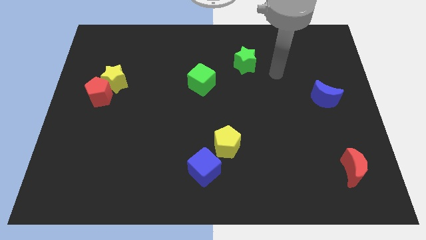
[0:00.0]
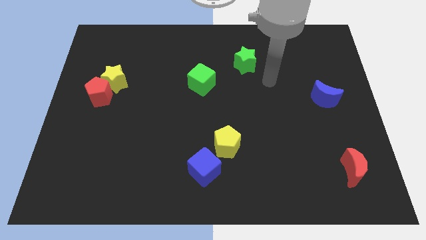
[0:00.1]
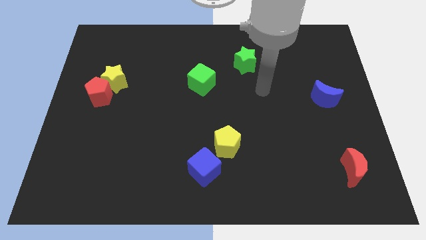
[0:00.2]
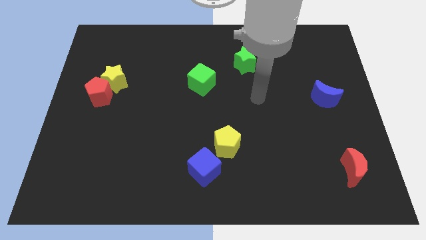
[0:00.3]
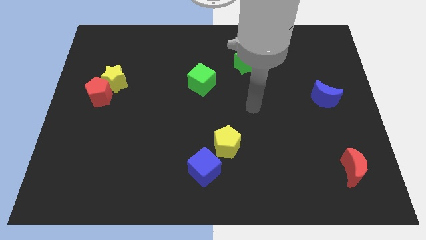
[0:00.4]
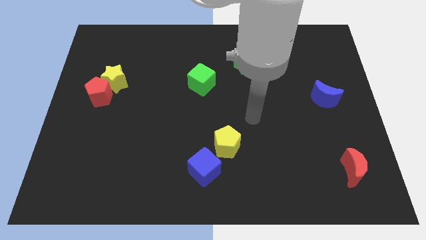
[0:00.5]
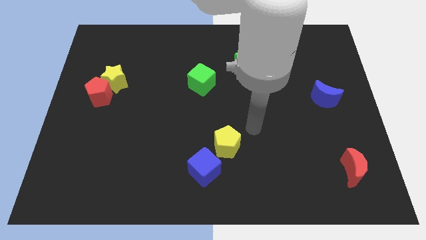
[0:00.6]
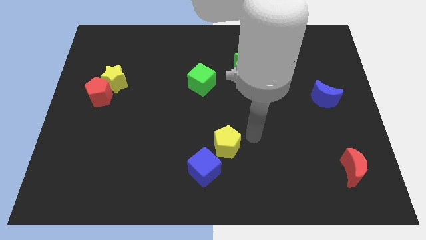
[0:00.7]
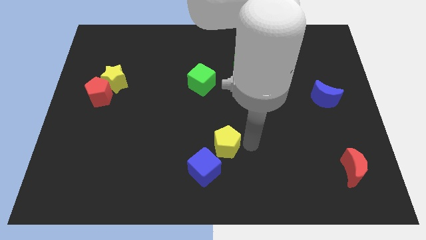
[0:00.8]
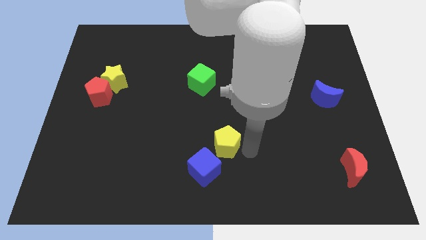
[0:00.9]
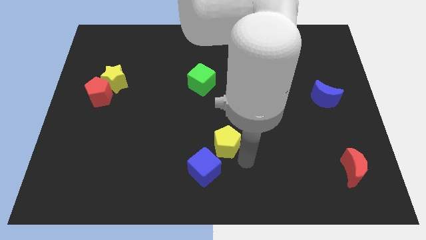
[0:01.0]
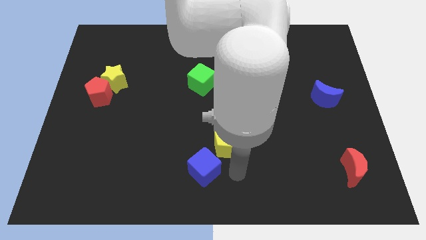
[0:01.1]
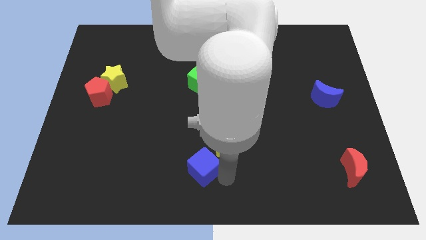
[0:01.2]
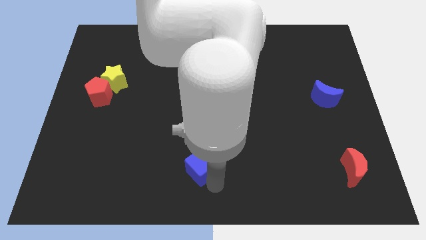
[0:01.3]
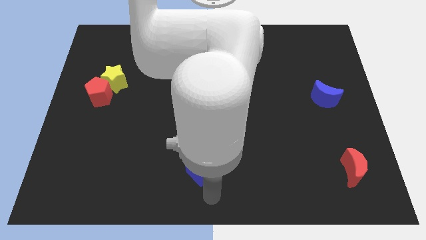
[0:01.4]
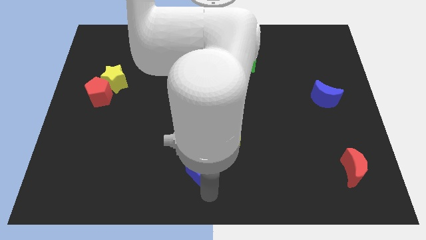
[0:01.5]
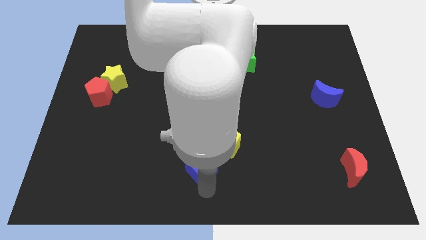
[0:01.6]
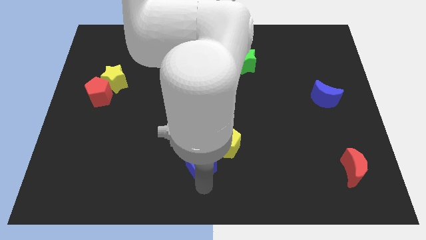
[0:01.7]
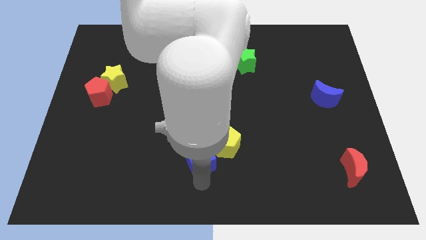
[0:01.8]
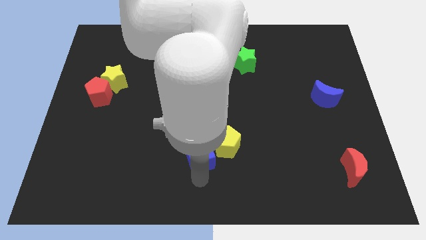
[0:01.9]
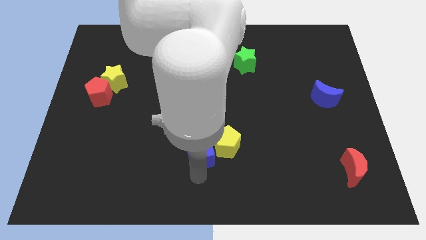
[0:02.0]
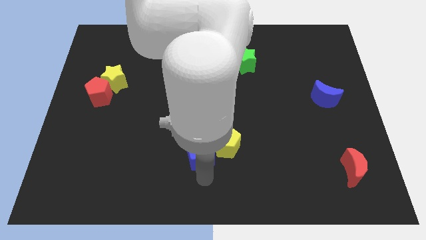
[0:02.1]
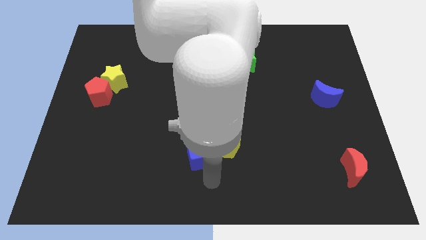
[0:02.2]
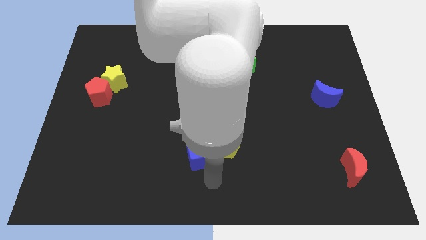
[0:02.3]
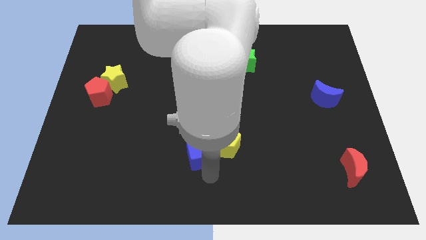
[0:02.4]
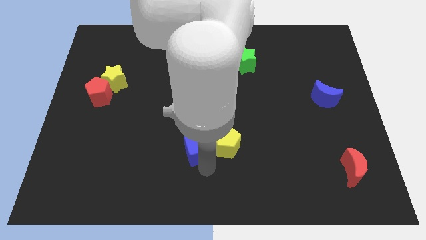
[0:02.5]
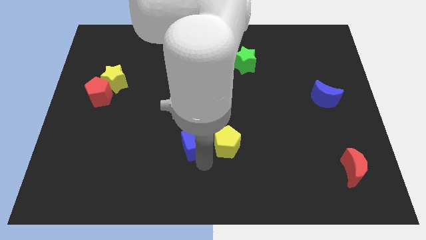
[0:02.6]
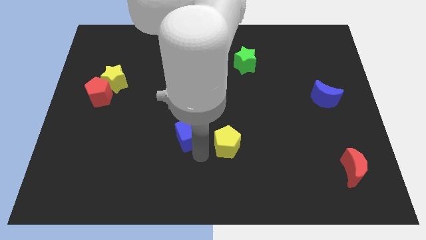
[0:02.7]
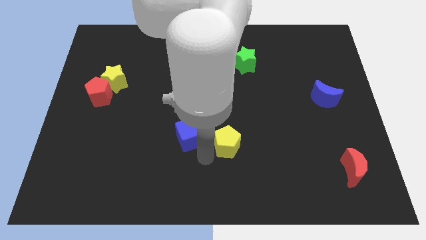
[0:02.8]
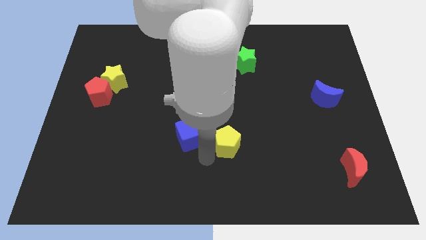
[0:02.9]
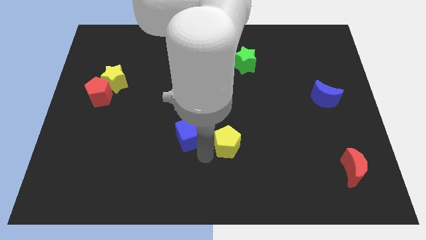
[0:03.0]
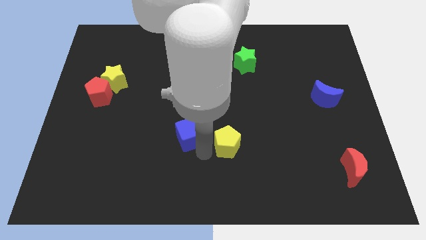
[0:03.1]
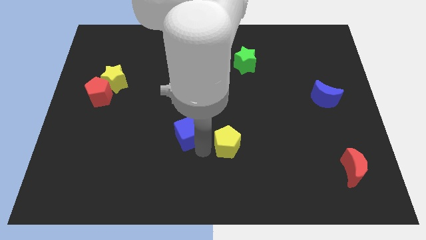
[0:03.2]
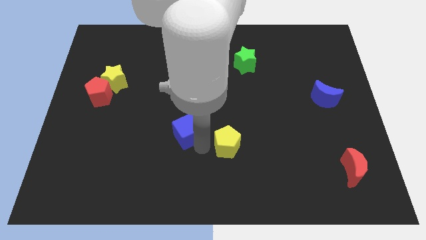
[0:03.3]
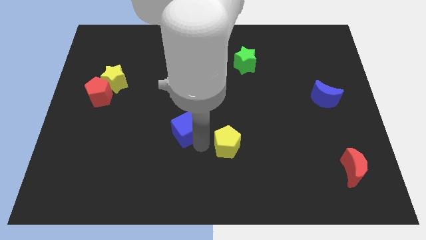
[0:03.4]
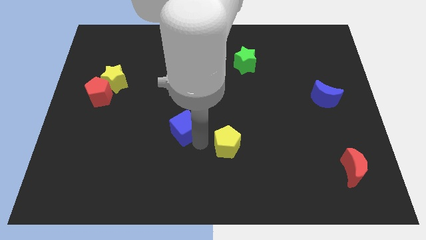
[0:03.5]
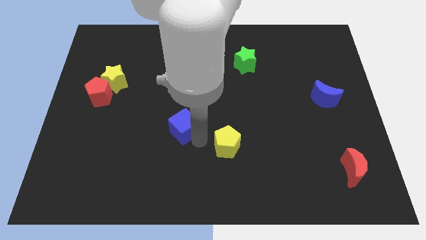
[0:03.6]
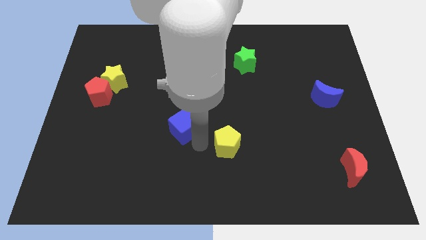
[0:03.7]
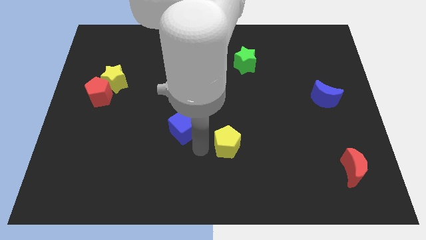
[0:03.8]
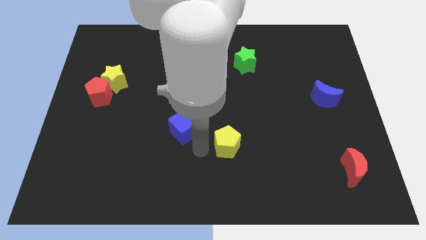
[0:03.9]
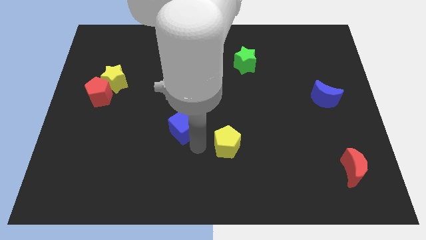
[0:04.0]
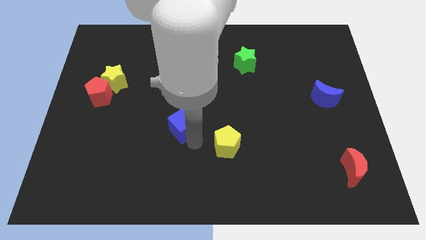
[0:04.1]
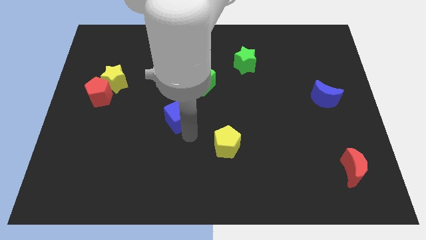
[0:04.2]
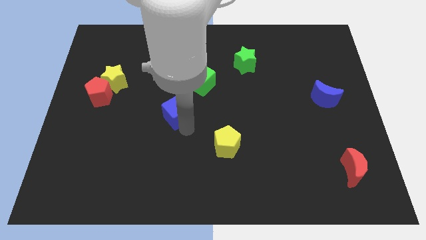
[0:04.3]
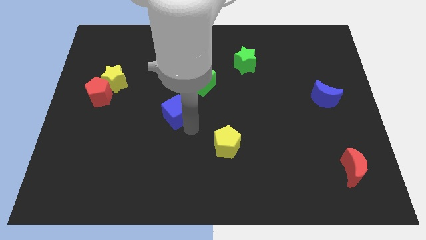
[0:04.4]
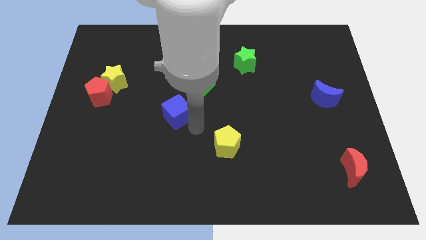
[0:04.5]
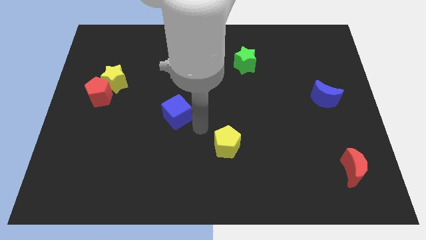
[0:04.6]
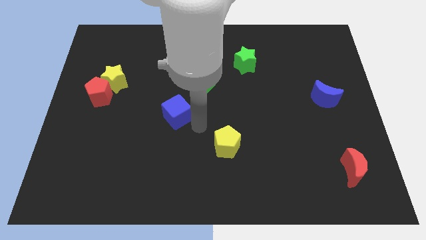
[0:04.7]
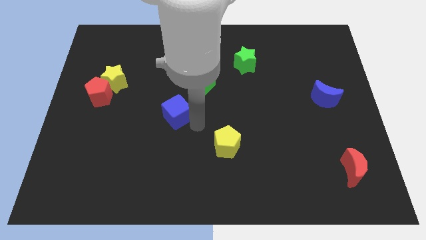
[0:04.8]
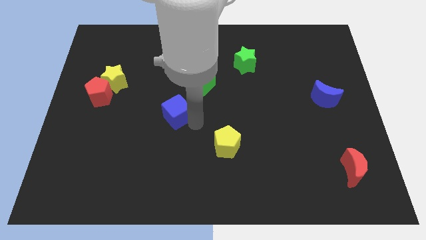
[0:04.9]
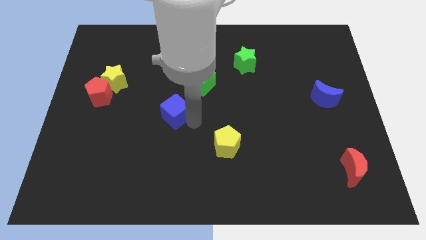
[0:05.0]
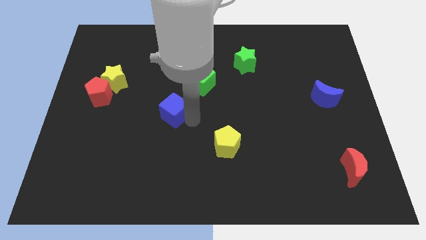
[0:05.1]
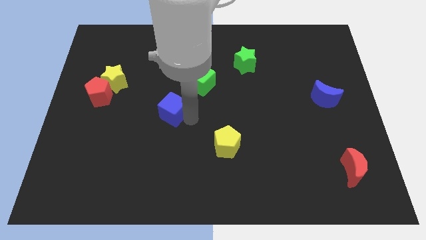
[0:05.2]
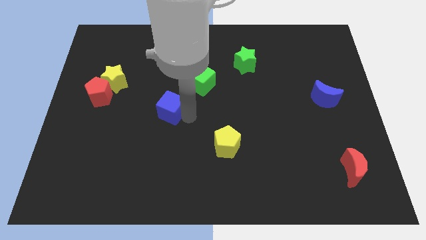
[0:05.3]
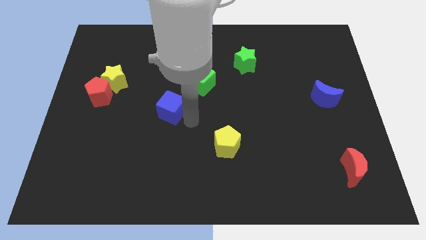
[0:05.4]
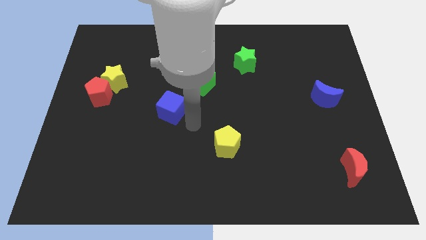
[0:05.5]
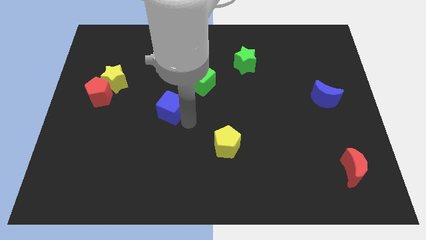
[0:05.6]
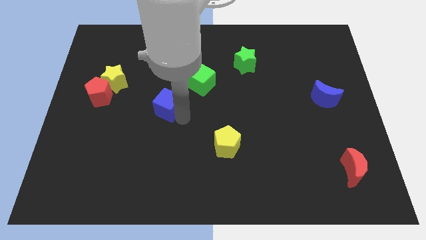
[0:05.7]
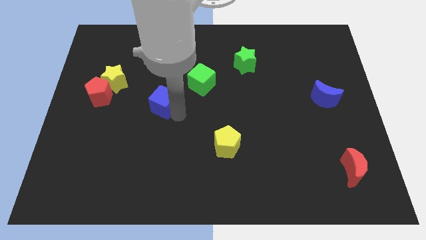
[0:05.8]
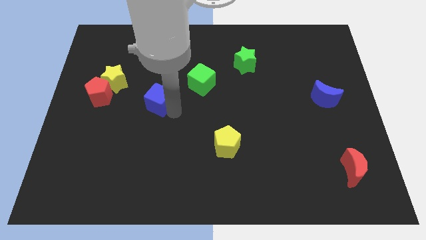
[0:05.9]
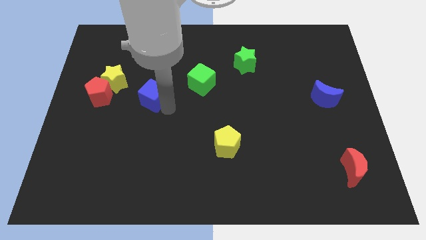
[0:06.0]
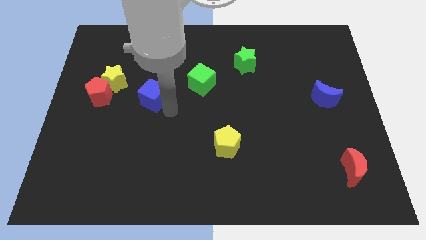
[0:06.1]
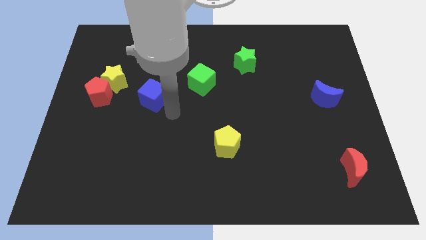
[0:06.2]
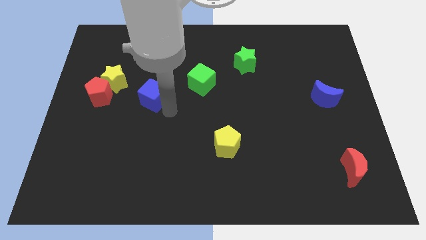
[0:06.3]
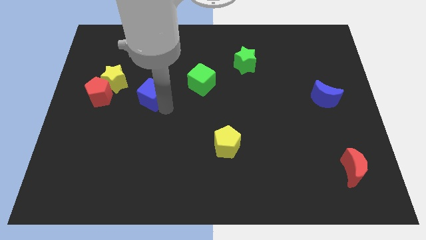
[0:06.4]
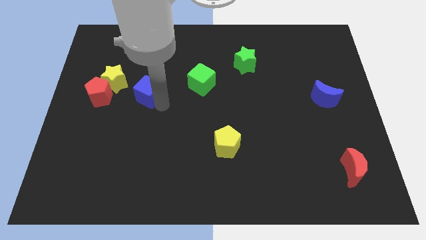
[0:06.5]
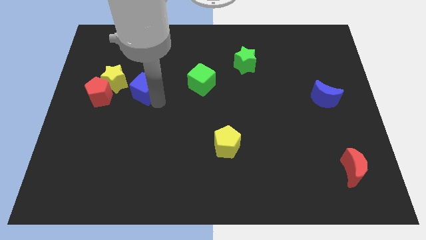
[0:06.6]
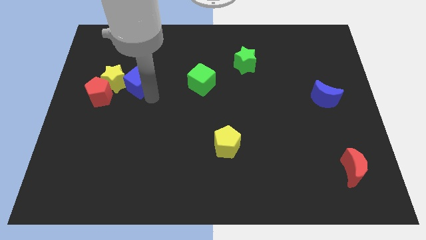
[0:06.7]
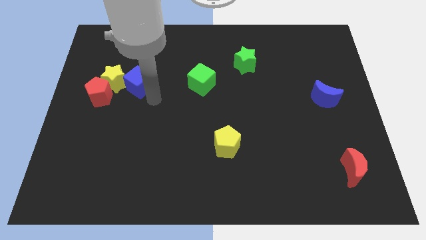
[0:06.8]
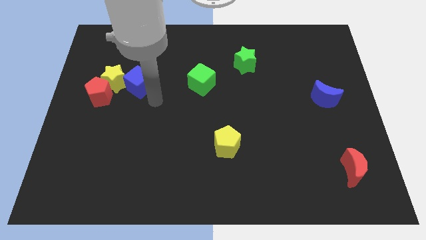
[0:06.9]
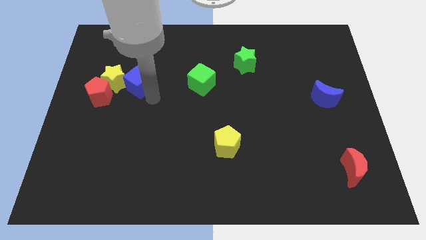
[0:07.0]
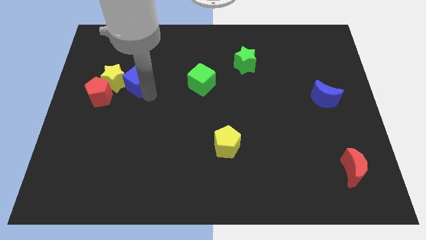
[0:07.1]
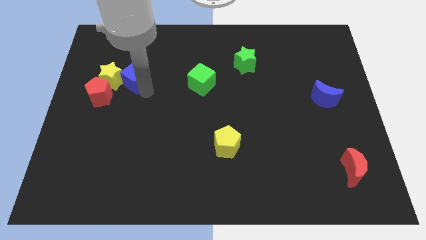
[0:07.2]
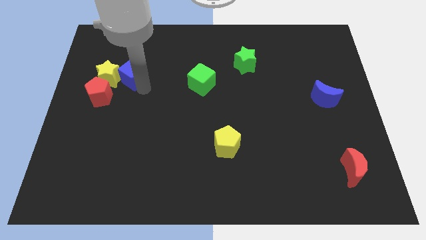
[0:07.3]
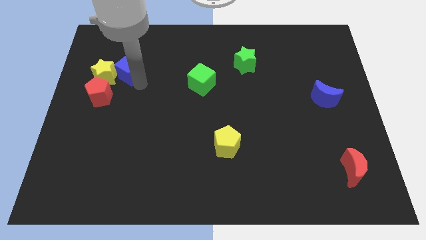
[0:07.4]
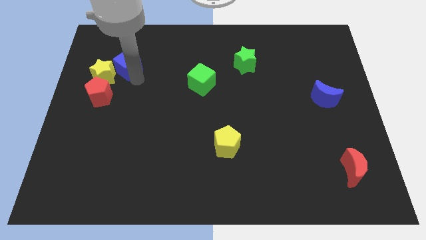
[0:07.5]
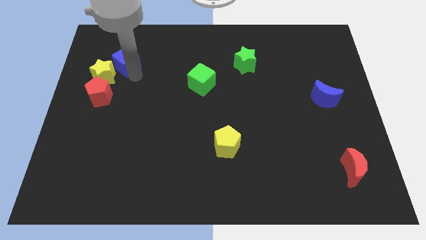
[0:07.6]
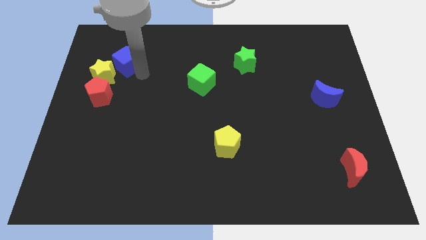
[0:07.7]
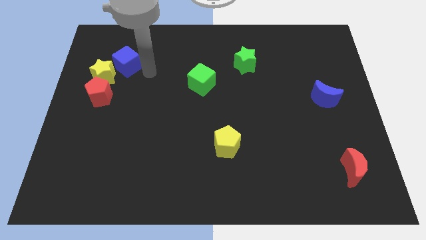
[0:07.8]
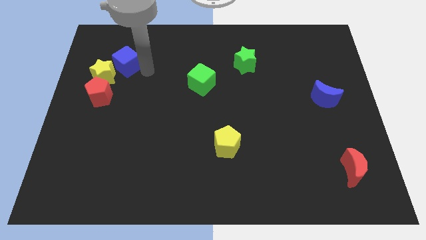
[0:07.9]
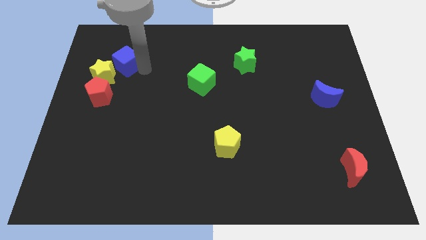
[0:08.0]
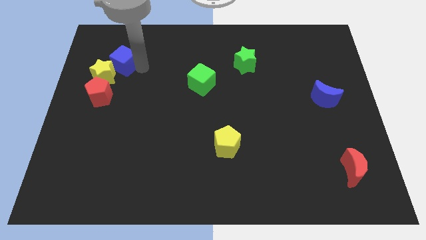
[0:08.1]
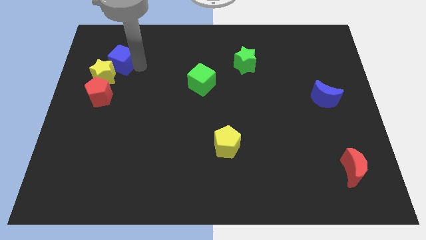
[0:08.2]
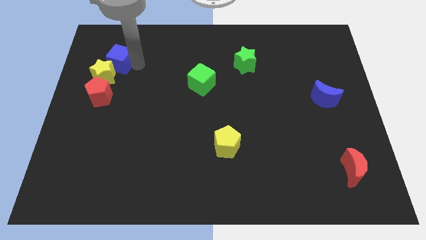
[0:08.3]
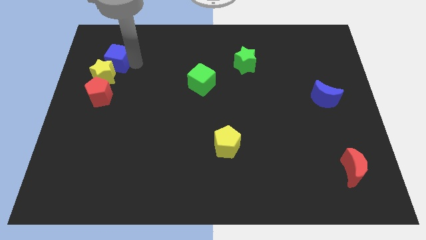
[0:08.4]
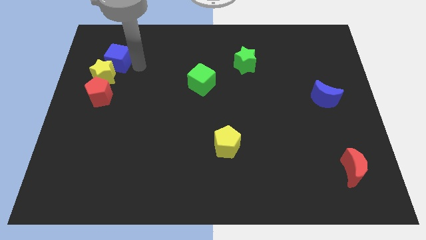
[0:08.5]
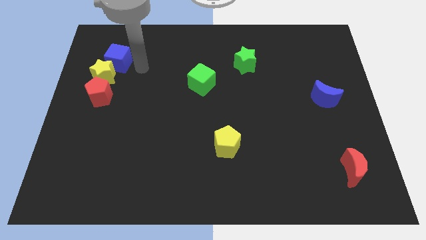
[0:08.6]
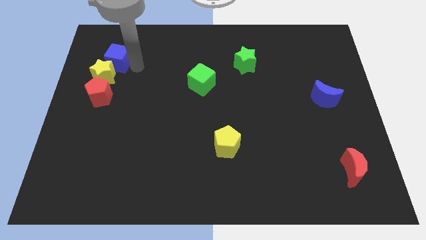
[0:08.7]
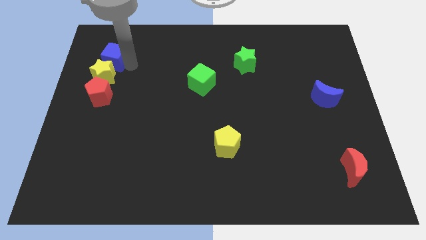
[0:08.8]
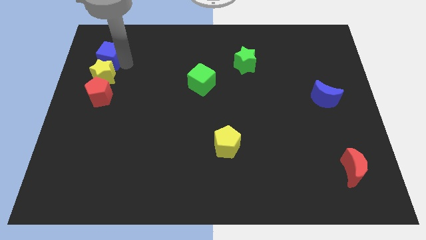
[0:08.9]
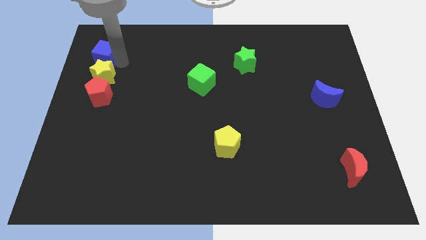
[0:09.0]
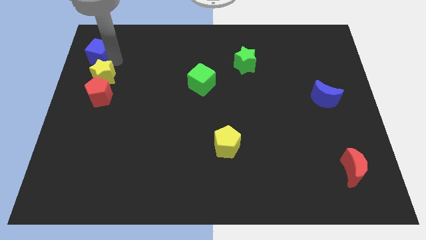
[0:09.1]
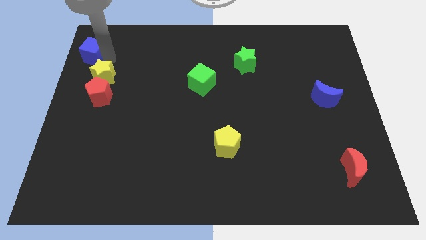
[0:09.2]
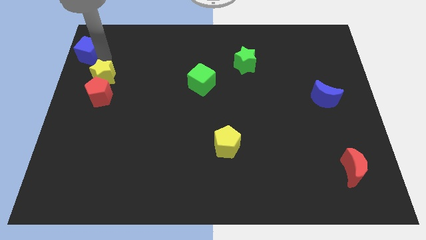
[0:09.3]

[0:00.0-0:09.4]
move the blue cube to the top left
